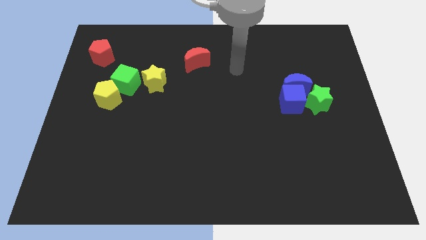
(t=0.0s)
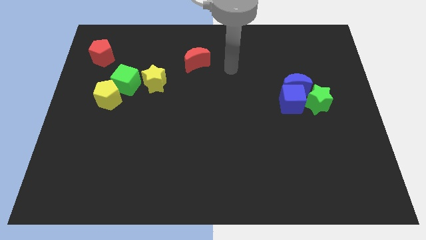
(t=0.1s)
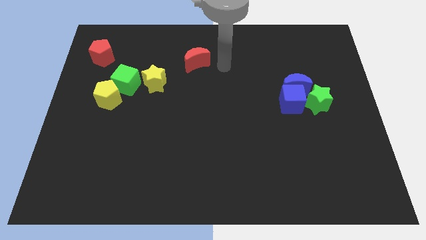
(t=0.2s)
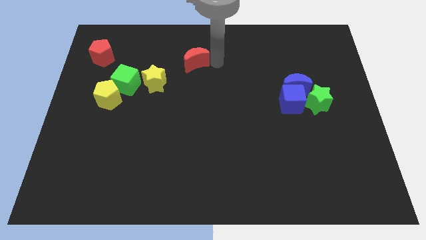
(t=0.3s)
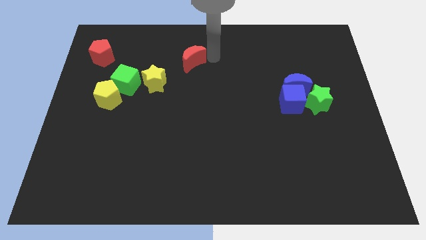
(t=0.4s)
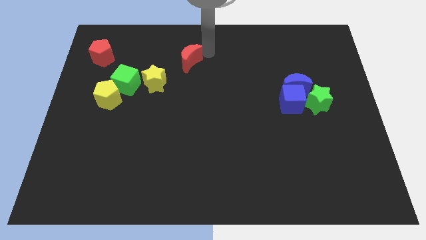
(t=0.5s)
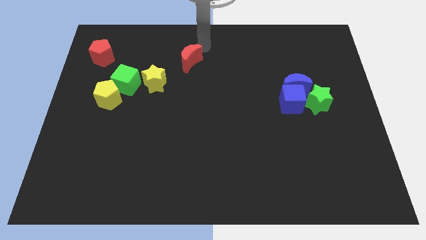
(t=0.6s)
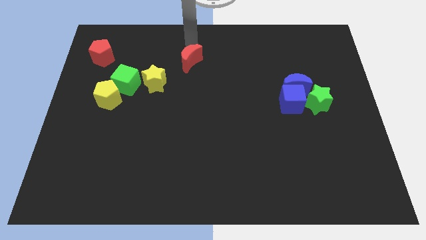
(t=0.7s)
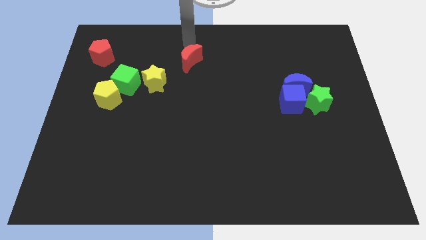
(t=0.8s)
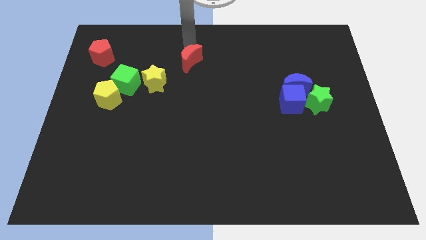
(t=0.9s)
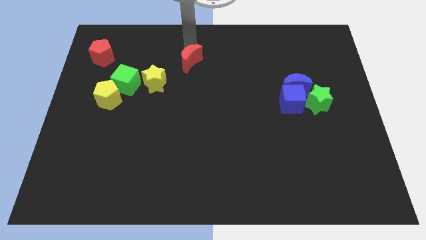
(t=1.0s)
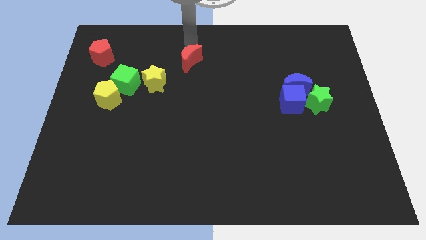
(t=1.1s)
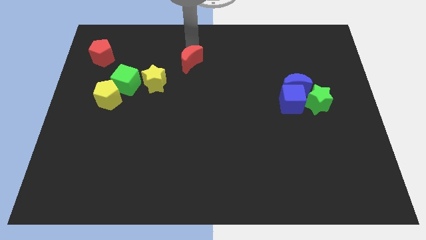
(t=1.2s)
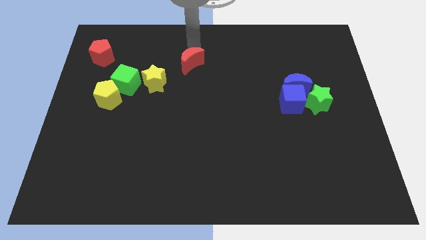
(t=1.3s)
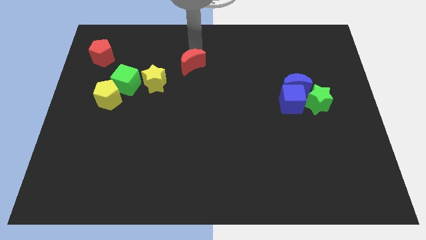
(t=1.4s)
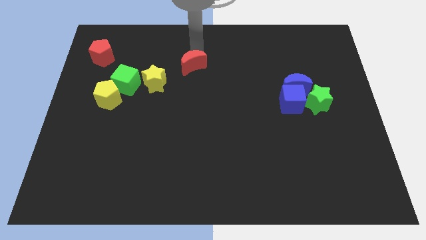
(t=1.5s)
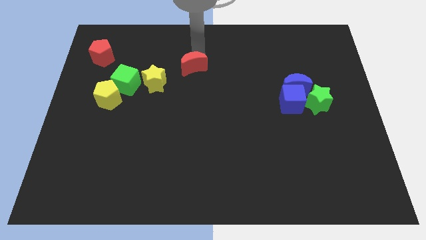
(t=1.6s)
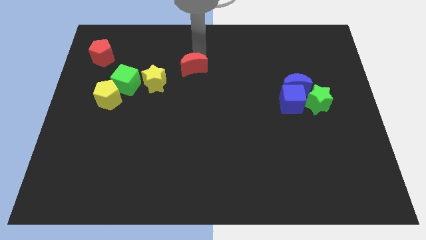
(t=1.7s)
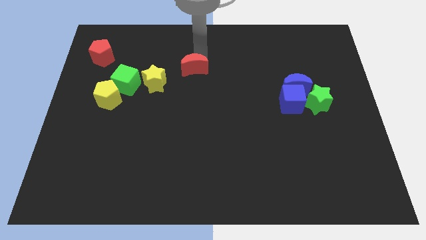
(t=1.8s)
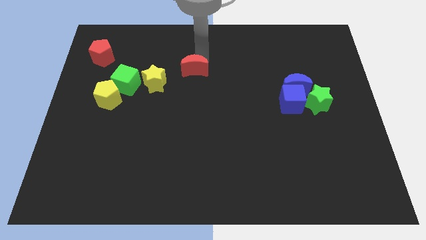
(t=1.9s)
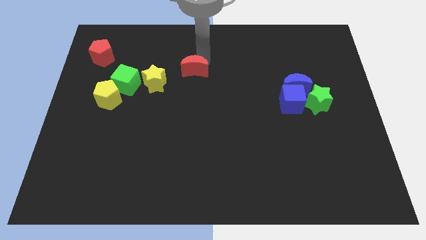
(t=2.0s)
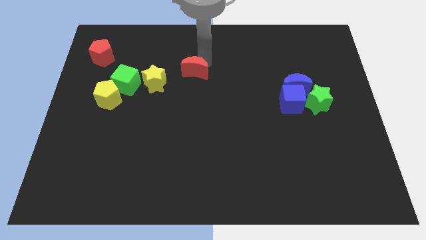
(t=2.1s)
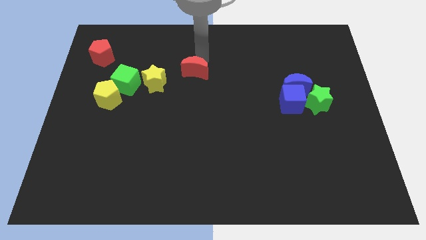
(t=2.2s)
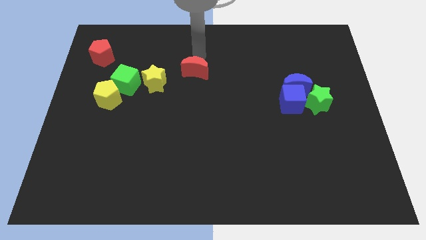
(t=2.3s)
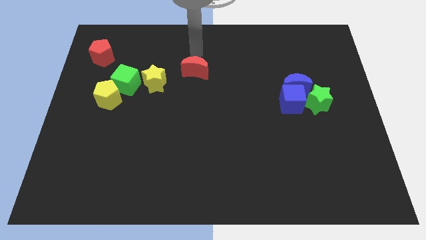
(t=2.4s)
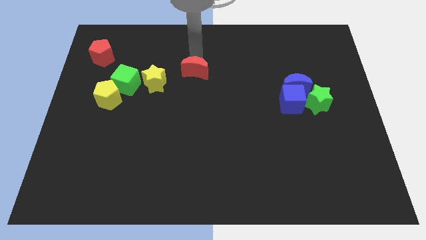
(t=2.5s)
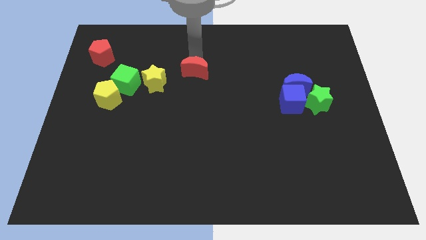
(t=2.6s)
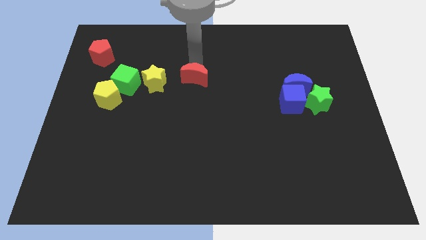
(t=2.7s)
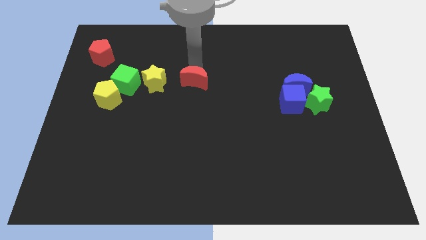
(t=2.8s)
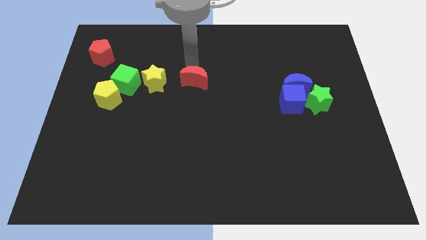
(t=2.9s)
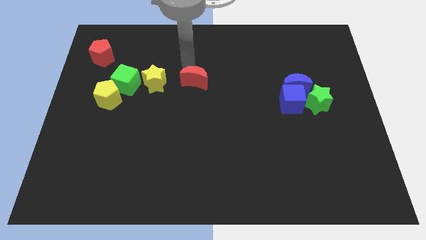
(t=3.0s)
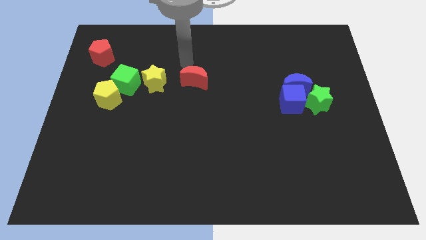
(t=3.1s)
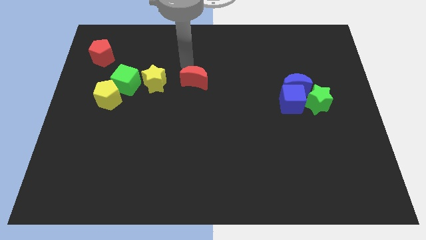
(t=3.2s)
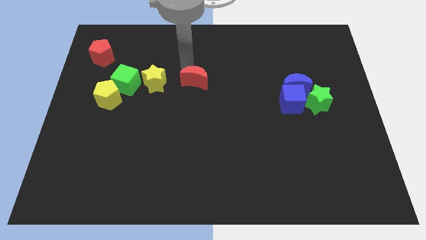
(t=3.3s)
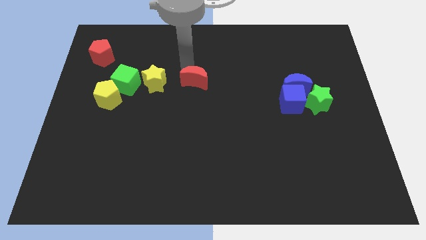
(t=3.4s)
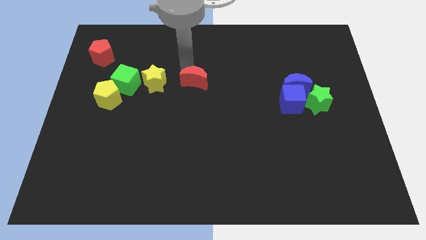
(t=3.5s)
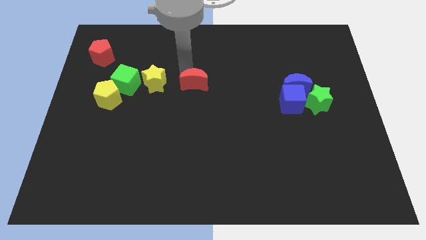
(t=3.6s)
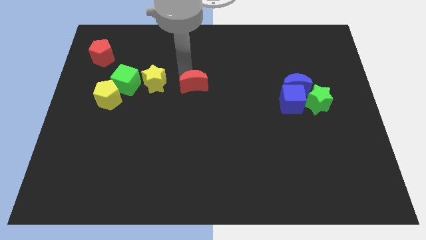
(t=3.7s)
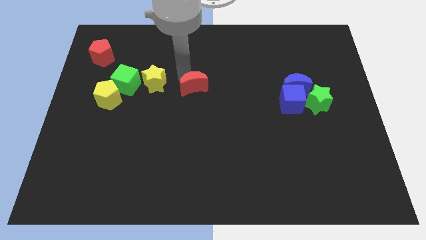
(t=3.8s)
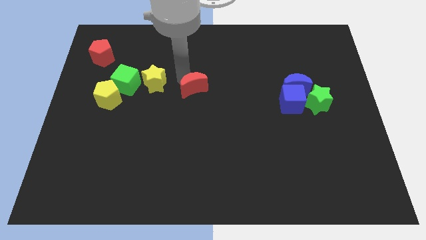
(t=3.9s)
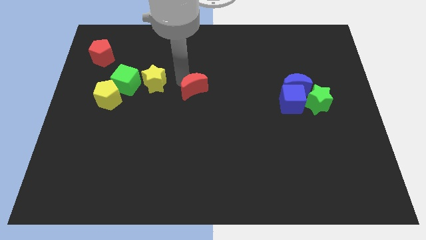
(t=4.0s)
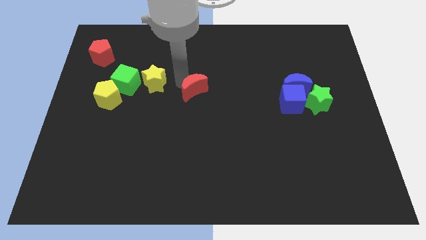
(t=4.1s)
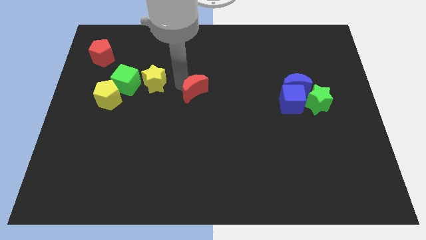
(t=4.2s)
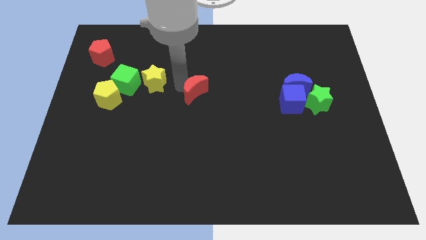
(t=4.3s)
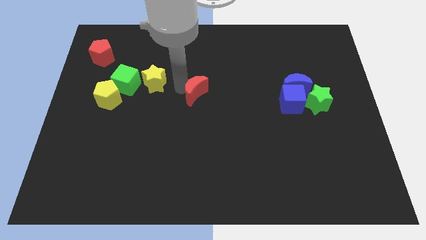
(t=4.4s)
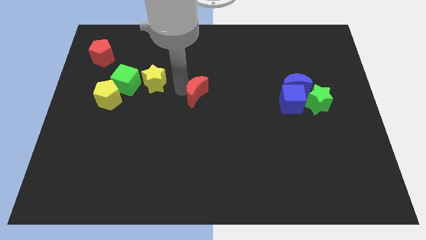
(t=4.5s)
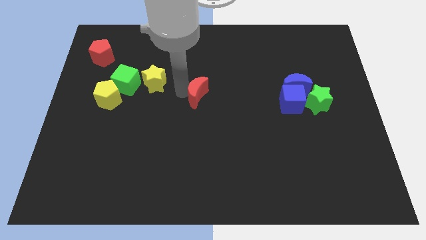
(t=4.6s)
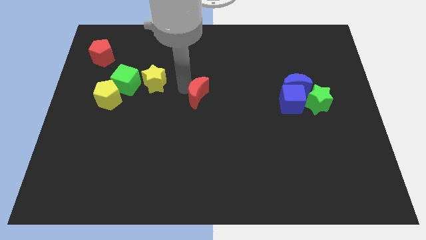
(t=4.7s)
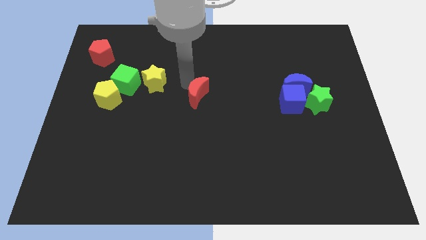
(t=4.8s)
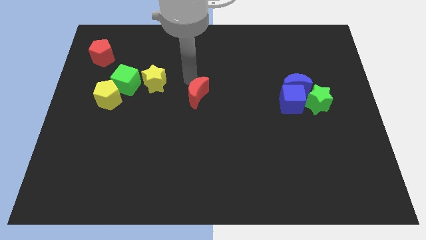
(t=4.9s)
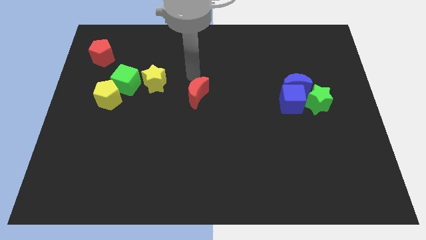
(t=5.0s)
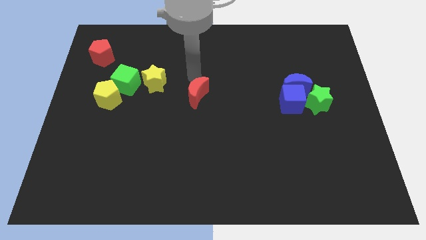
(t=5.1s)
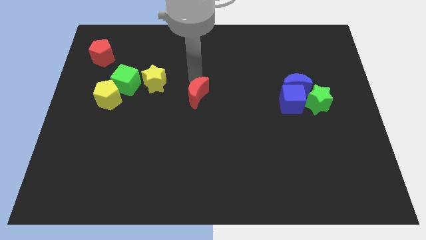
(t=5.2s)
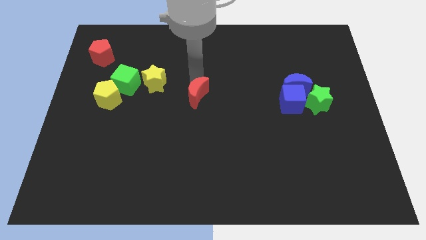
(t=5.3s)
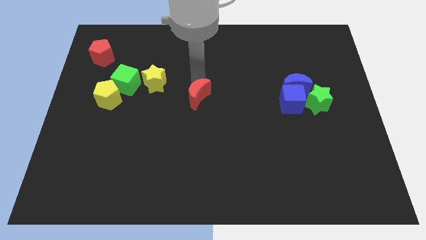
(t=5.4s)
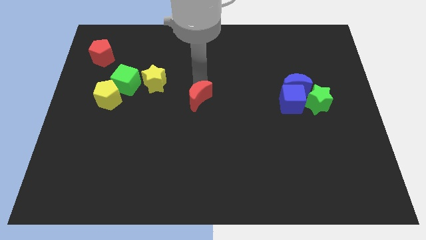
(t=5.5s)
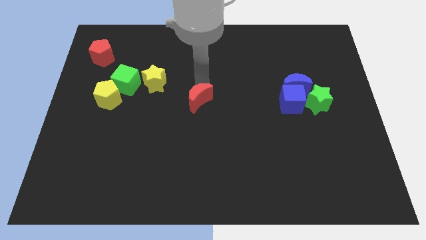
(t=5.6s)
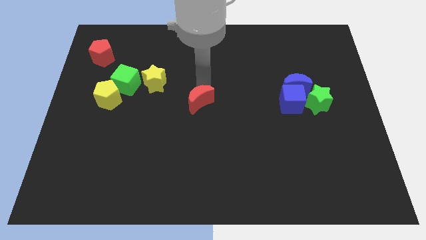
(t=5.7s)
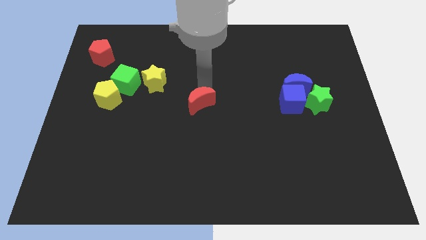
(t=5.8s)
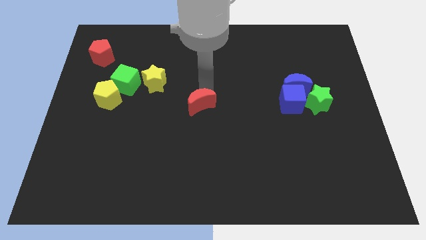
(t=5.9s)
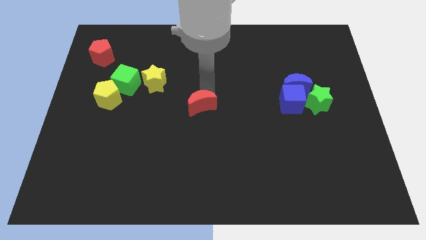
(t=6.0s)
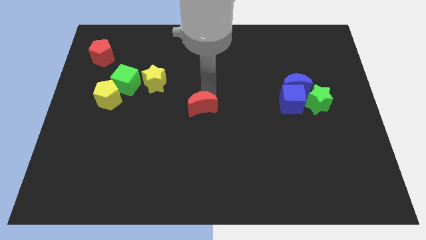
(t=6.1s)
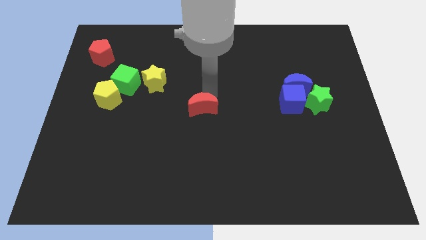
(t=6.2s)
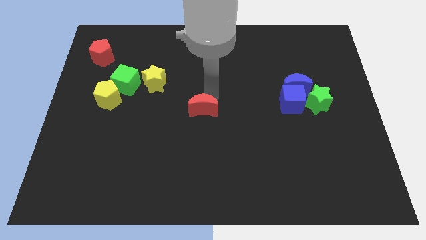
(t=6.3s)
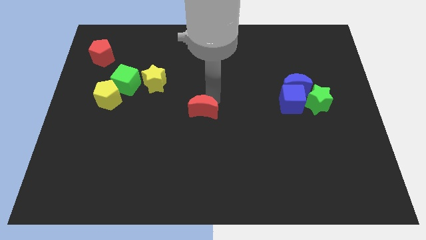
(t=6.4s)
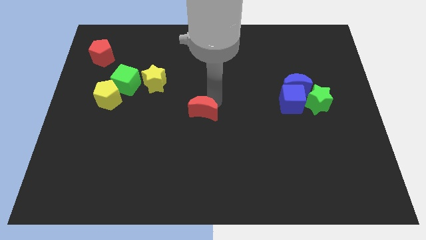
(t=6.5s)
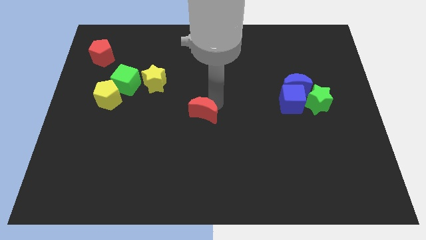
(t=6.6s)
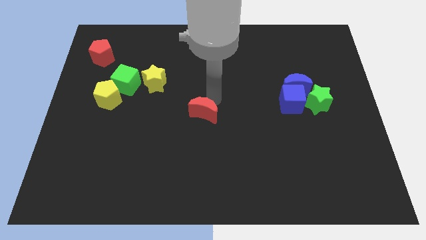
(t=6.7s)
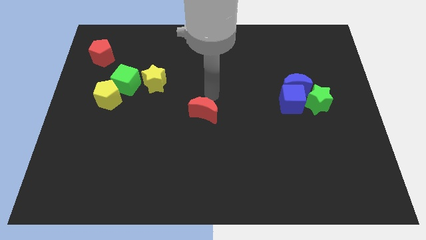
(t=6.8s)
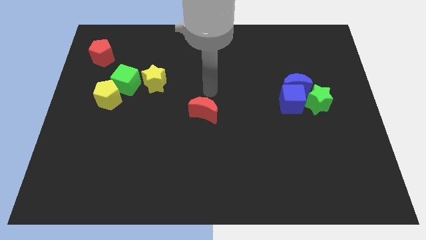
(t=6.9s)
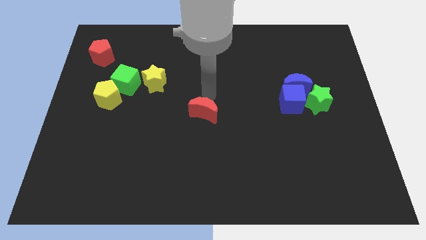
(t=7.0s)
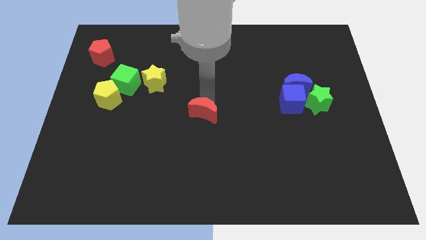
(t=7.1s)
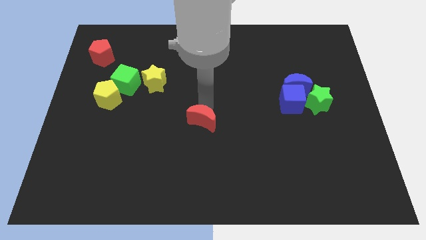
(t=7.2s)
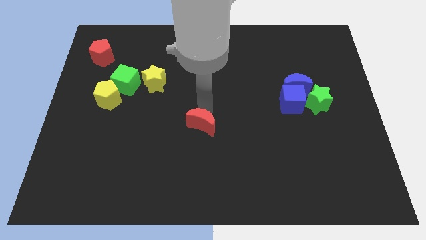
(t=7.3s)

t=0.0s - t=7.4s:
push the red moon down

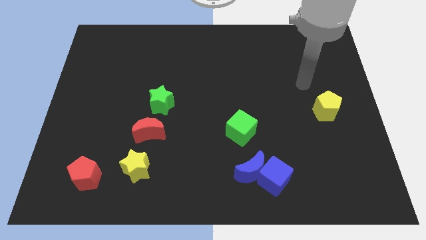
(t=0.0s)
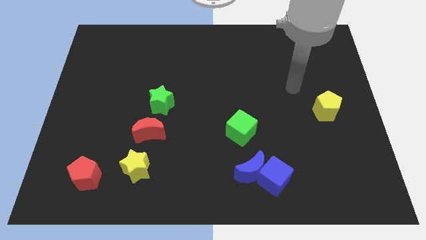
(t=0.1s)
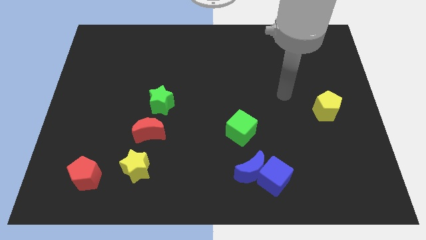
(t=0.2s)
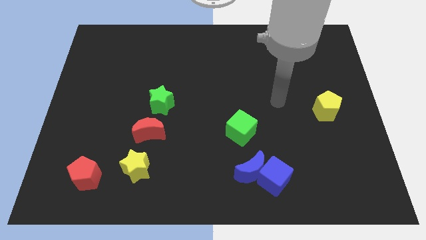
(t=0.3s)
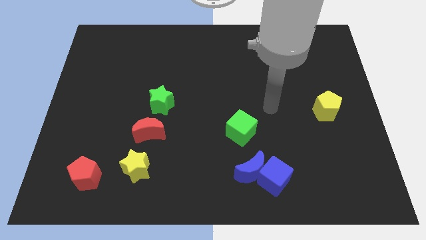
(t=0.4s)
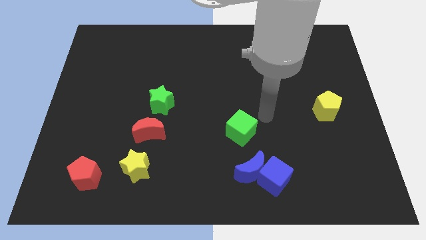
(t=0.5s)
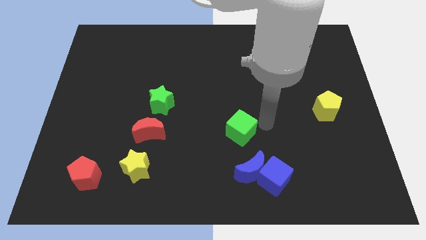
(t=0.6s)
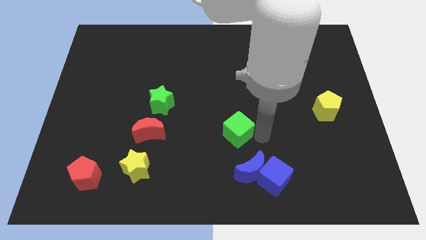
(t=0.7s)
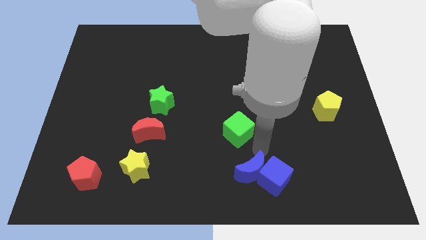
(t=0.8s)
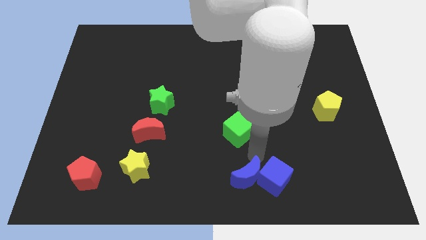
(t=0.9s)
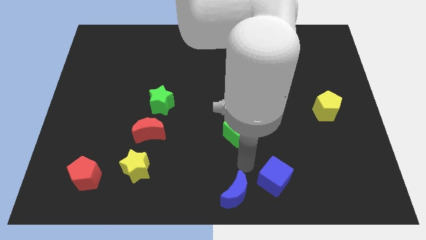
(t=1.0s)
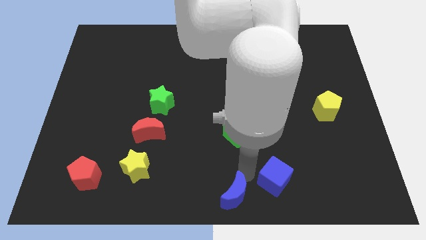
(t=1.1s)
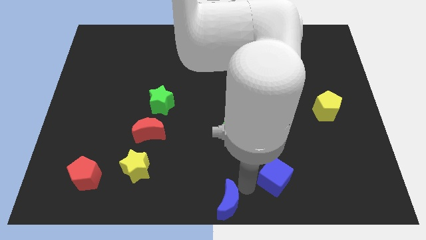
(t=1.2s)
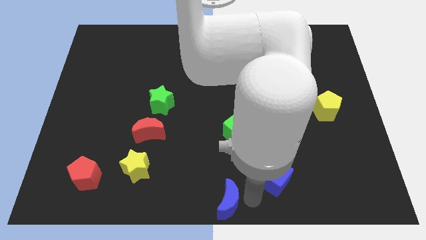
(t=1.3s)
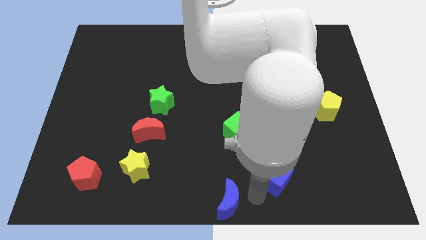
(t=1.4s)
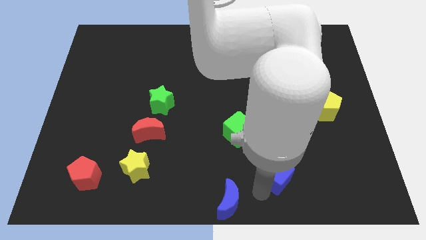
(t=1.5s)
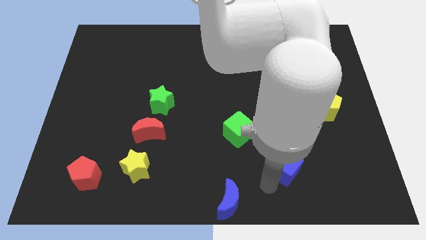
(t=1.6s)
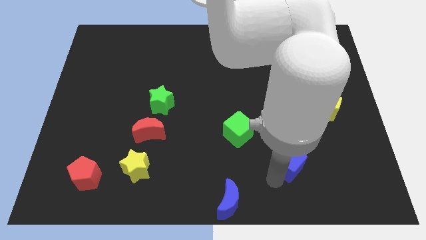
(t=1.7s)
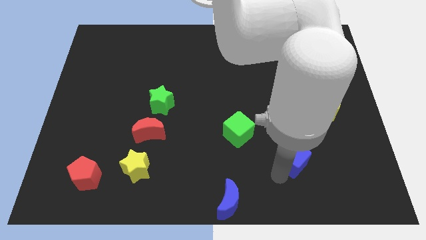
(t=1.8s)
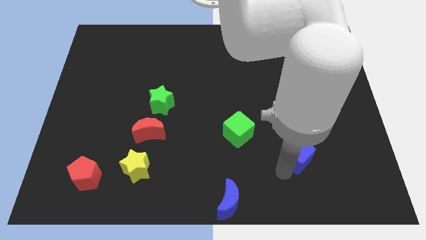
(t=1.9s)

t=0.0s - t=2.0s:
move the blue cube up and right a bit
